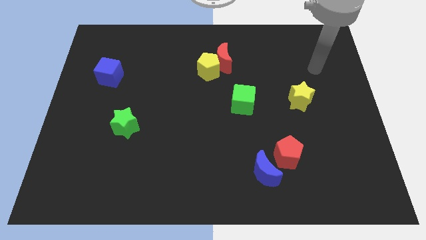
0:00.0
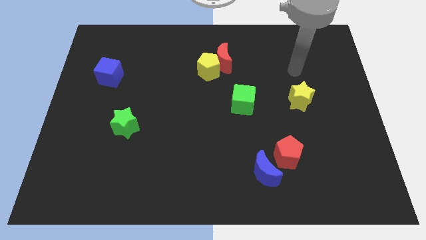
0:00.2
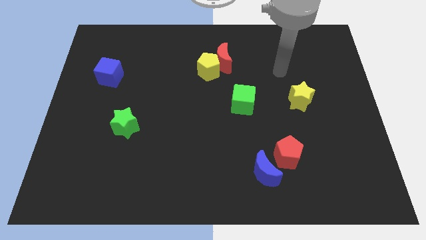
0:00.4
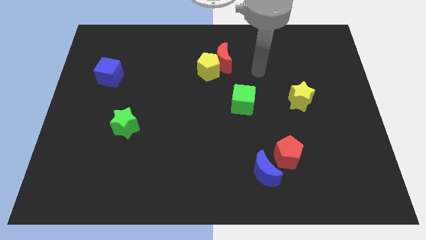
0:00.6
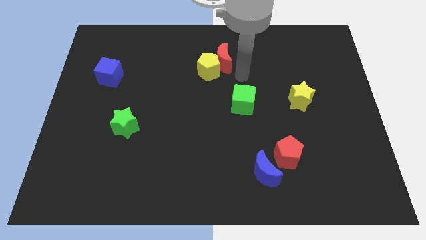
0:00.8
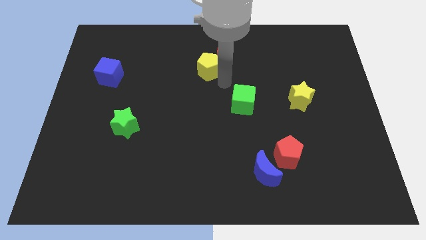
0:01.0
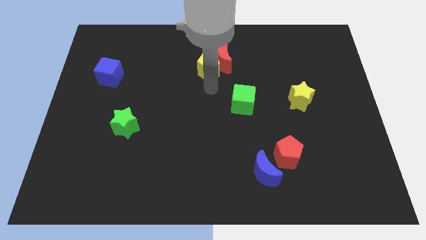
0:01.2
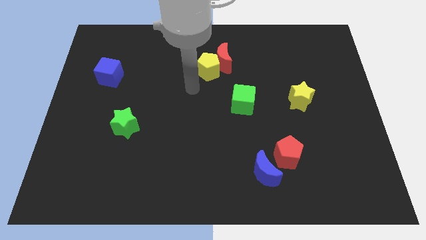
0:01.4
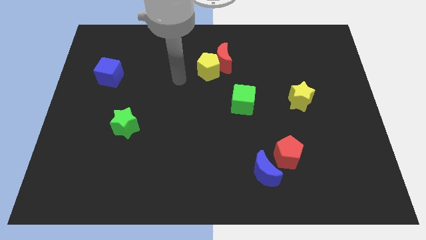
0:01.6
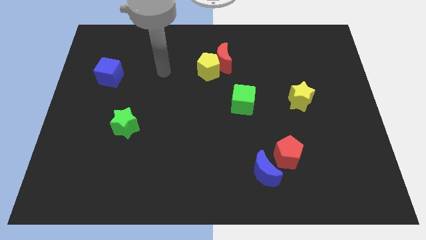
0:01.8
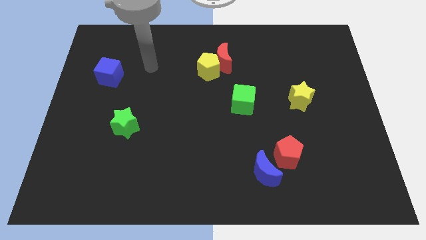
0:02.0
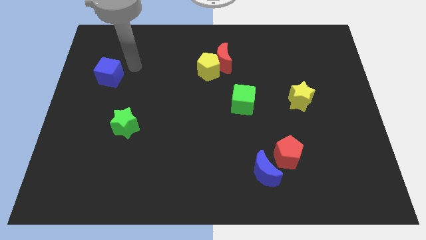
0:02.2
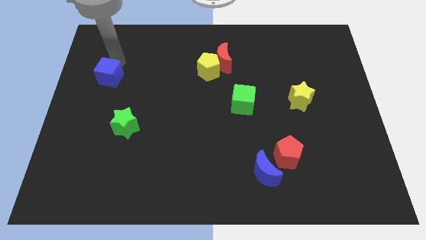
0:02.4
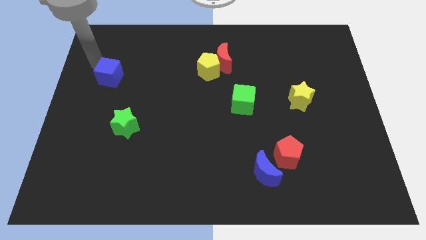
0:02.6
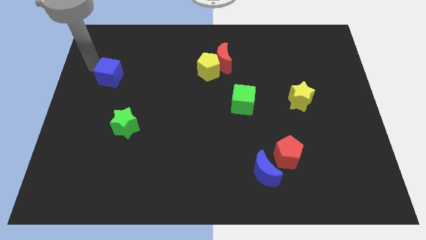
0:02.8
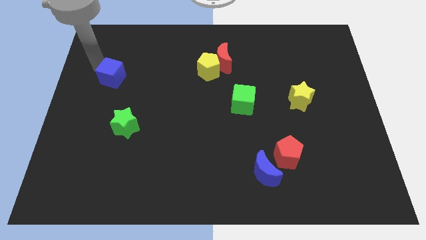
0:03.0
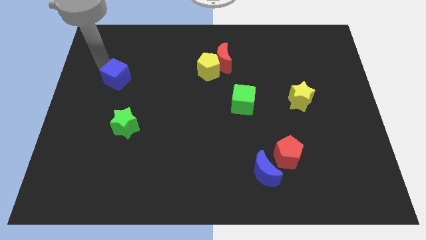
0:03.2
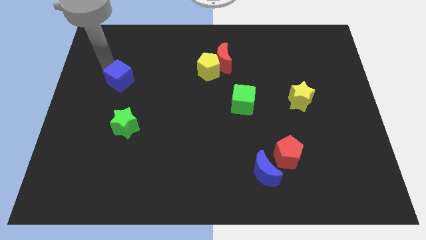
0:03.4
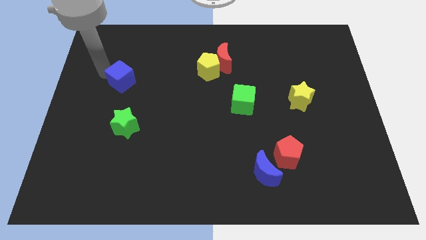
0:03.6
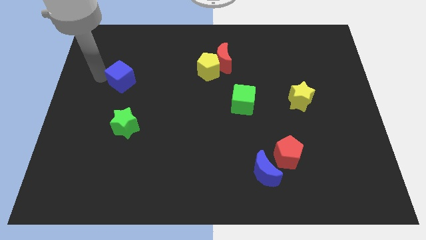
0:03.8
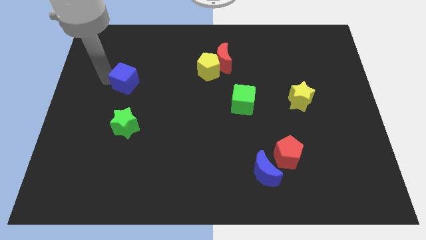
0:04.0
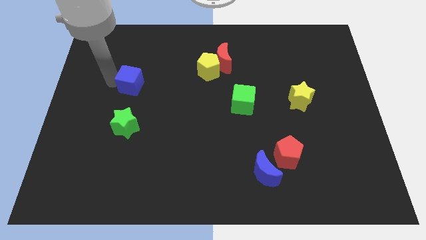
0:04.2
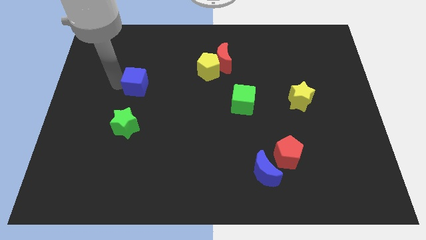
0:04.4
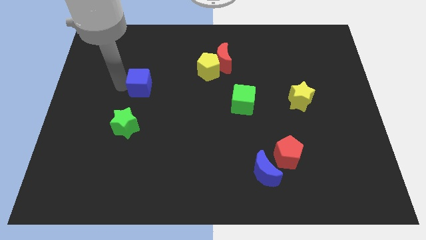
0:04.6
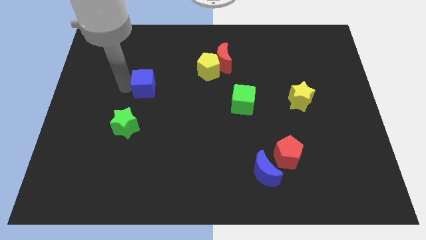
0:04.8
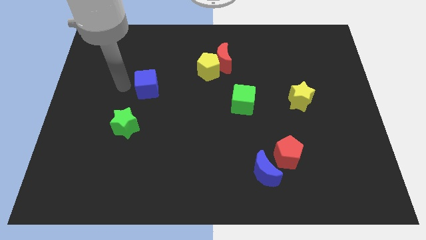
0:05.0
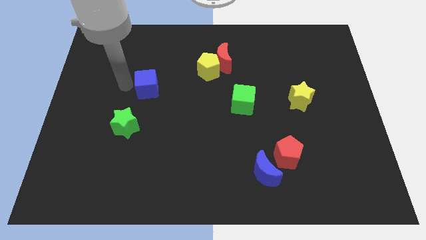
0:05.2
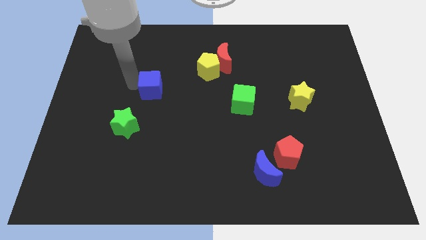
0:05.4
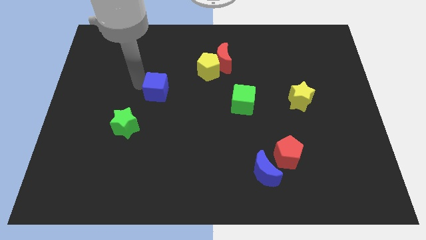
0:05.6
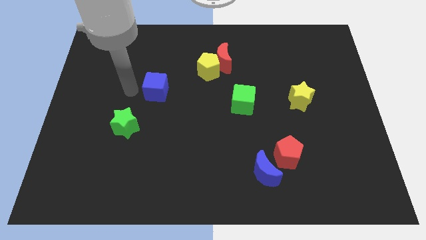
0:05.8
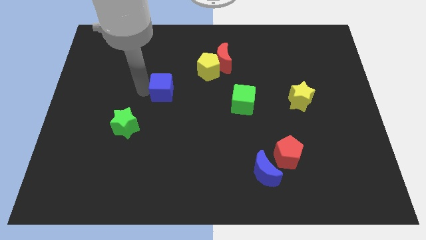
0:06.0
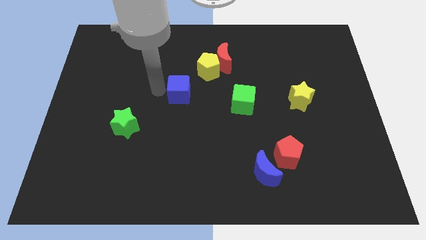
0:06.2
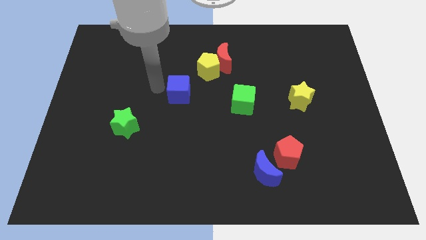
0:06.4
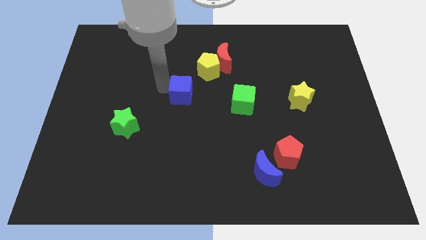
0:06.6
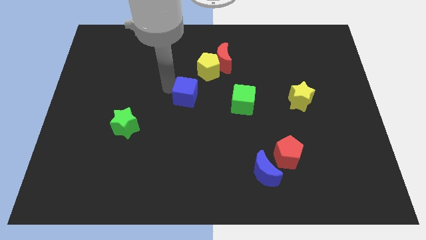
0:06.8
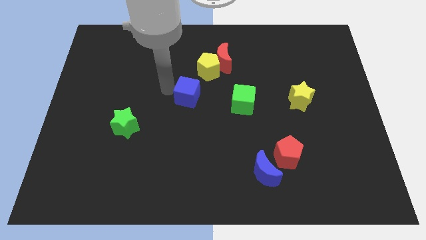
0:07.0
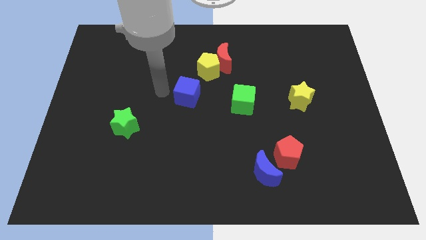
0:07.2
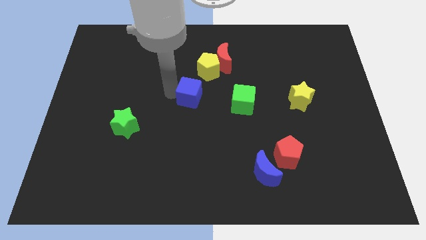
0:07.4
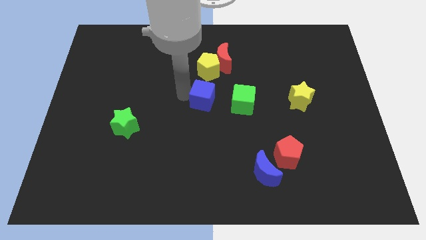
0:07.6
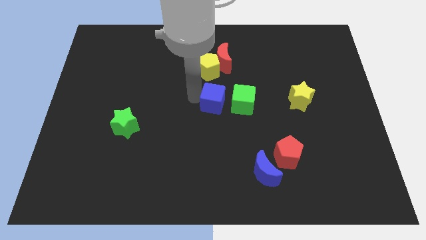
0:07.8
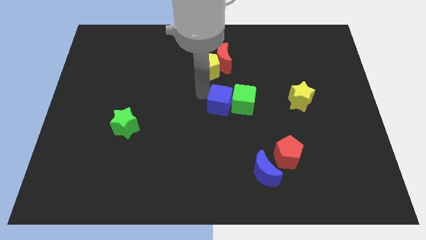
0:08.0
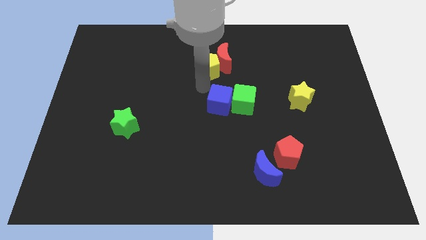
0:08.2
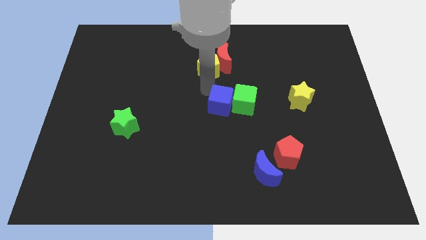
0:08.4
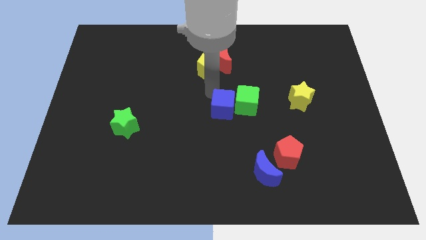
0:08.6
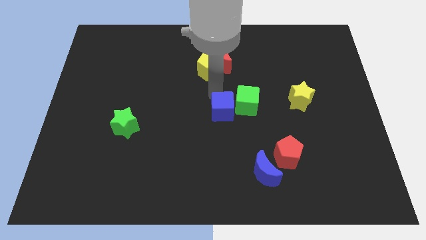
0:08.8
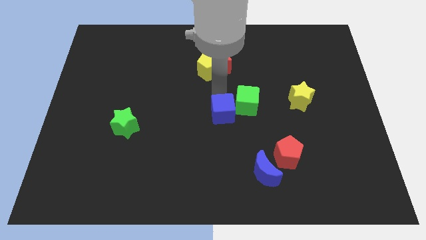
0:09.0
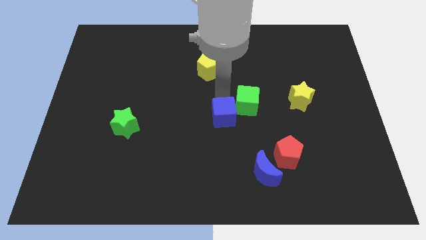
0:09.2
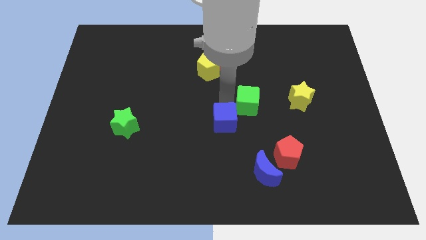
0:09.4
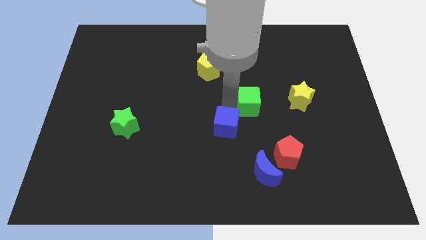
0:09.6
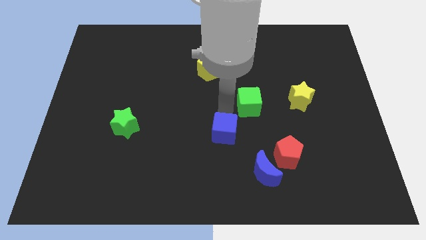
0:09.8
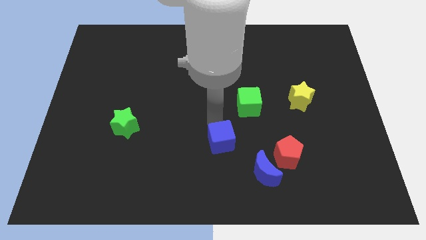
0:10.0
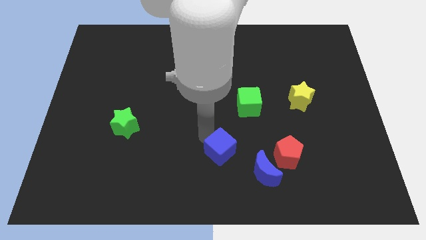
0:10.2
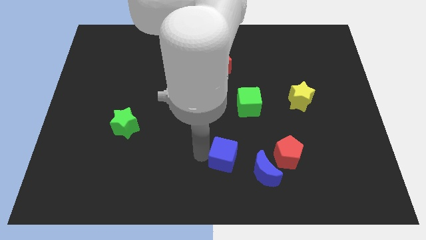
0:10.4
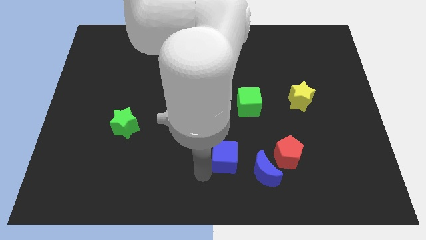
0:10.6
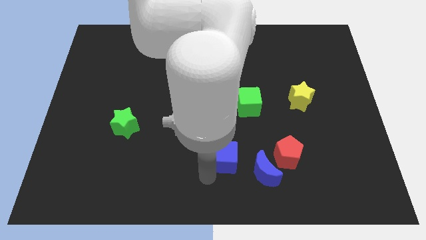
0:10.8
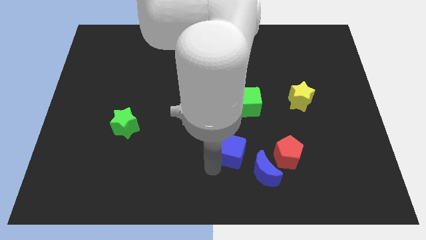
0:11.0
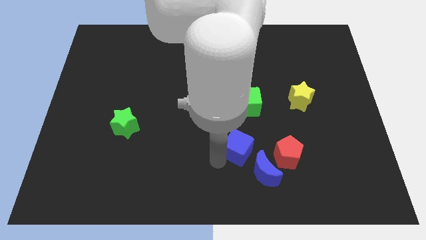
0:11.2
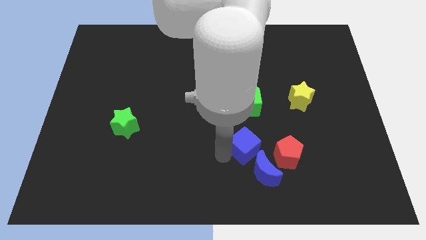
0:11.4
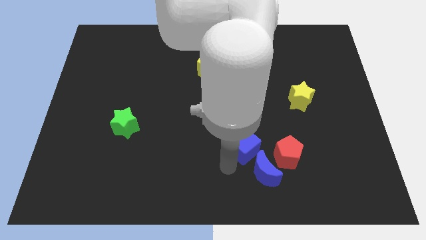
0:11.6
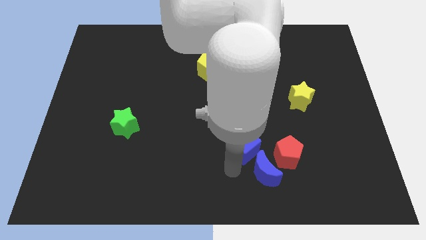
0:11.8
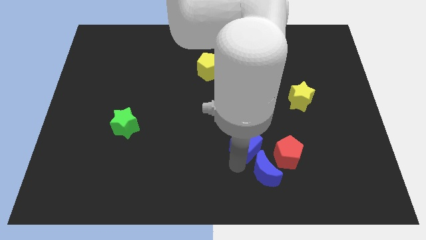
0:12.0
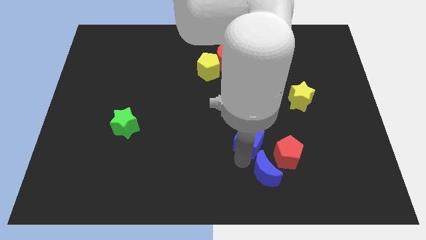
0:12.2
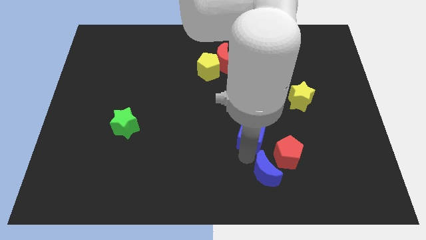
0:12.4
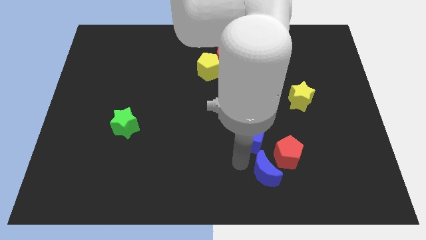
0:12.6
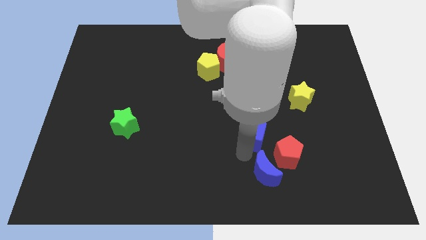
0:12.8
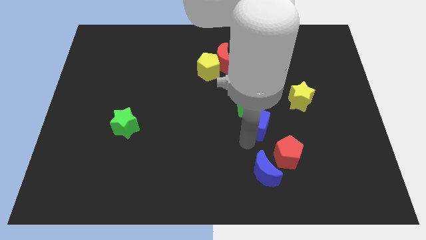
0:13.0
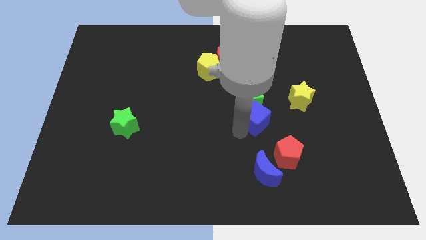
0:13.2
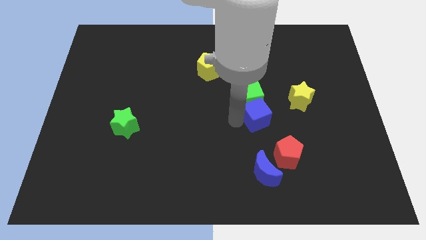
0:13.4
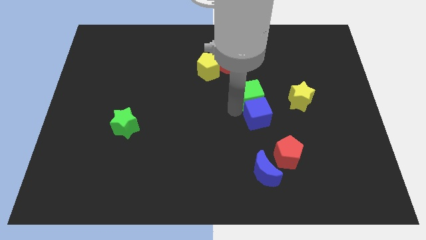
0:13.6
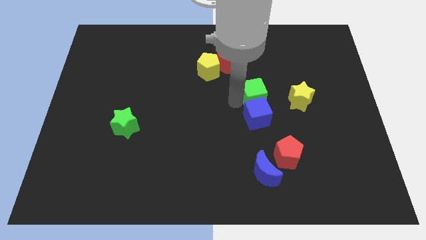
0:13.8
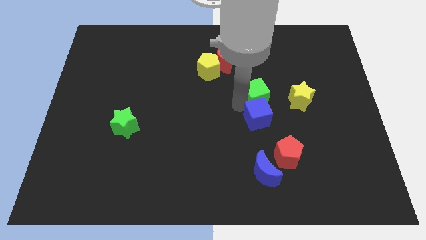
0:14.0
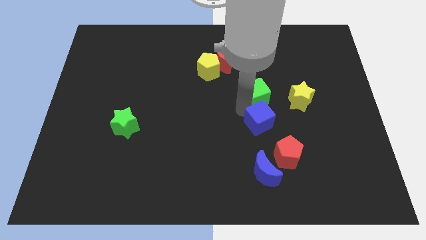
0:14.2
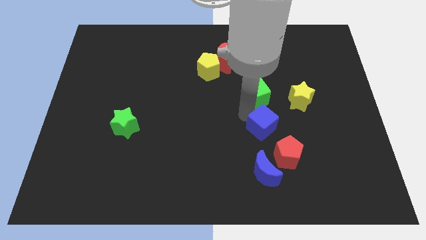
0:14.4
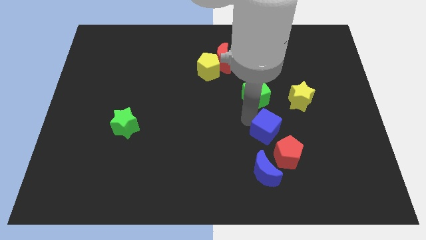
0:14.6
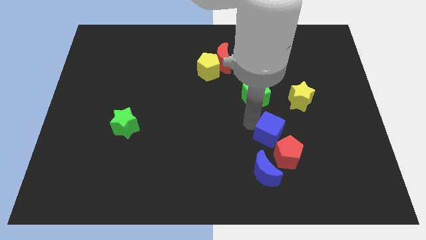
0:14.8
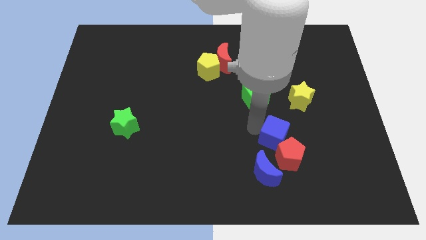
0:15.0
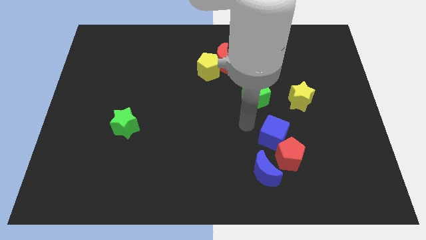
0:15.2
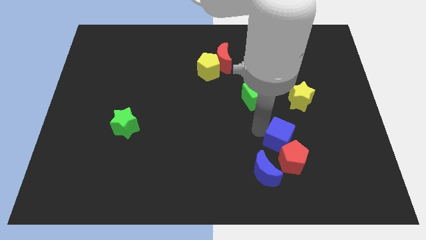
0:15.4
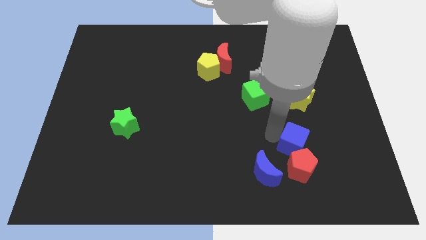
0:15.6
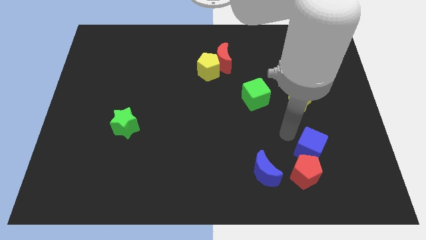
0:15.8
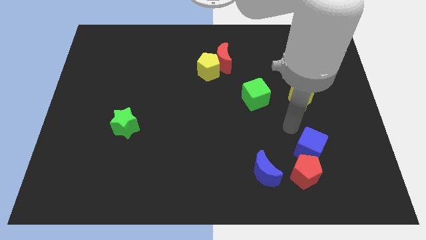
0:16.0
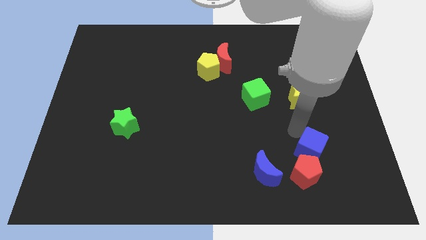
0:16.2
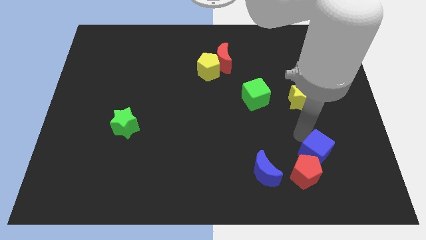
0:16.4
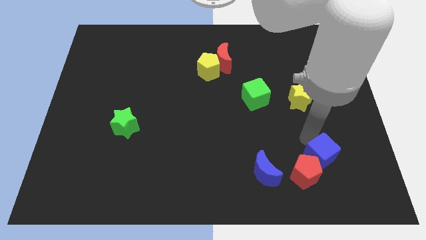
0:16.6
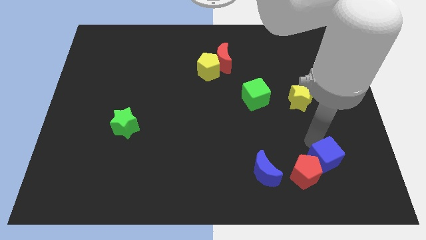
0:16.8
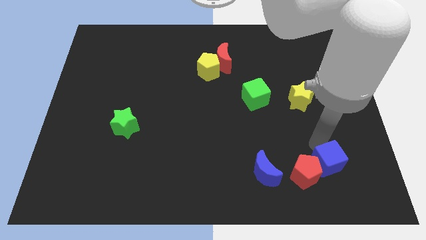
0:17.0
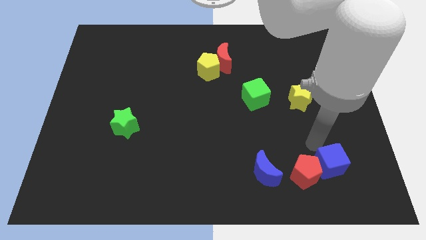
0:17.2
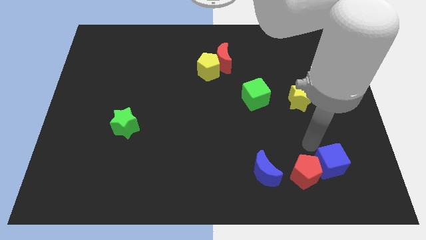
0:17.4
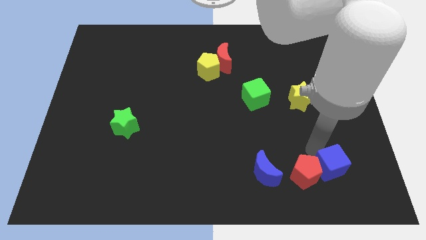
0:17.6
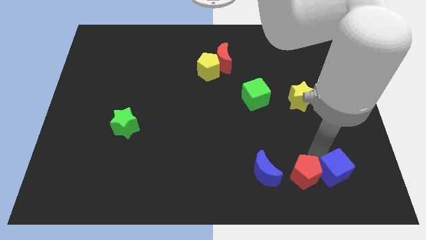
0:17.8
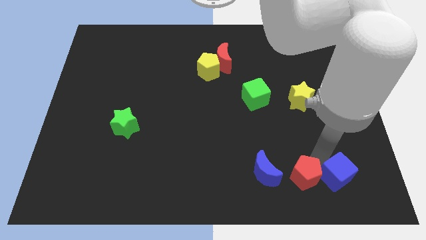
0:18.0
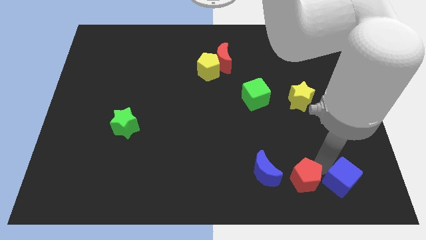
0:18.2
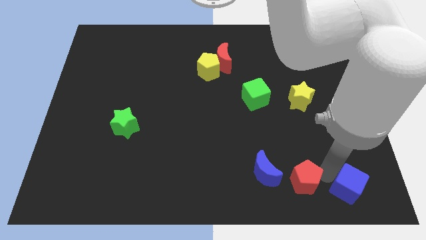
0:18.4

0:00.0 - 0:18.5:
move the blue cube to the bottom right of the board
